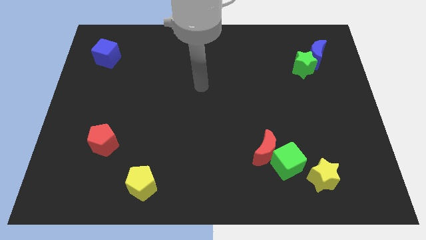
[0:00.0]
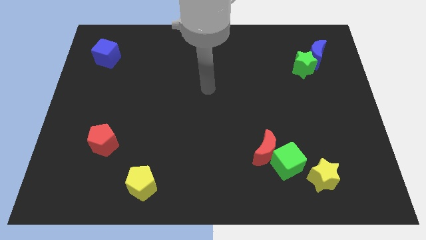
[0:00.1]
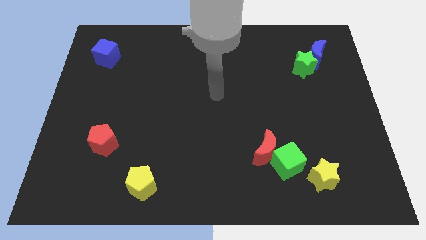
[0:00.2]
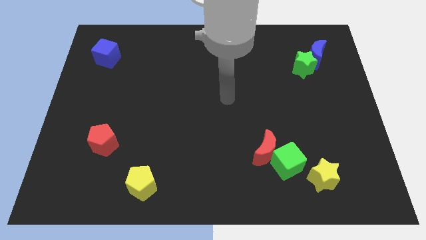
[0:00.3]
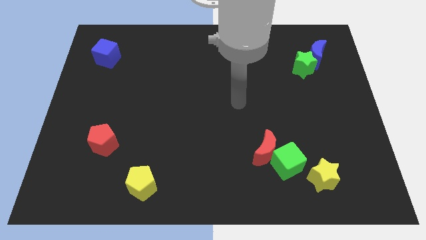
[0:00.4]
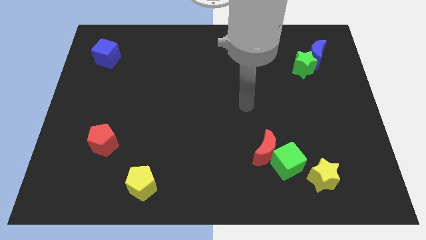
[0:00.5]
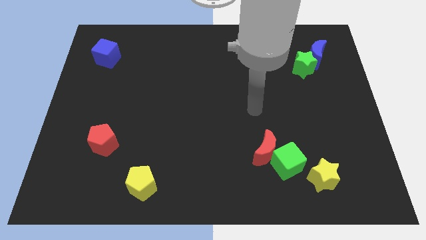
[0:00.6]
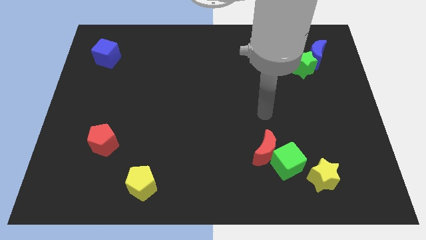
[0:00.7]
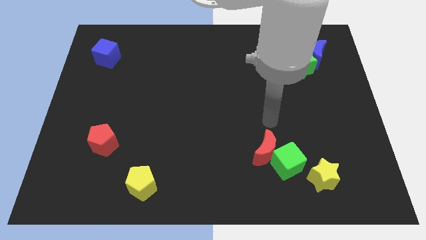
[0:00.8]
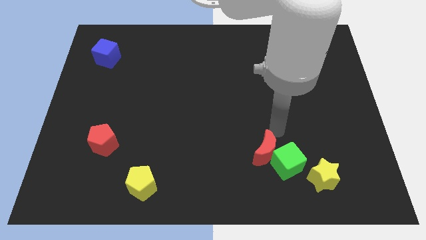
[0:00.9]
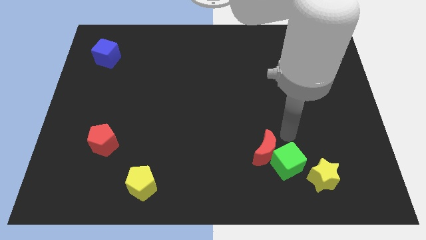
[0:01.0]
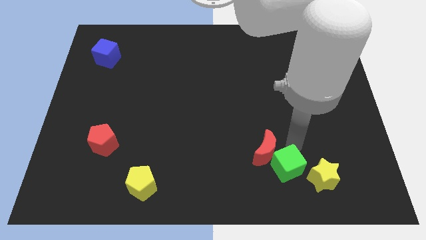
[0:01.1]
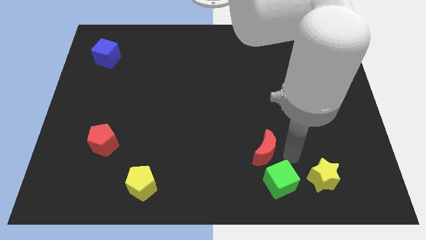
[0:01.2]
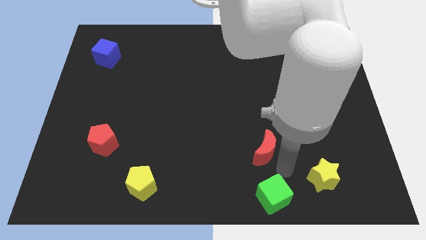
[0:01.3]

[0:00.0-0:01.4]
move the red moon away from the green cube

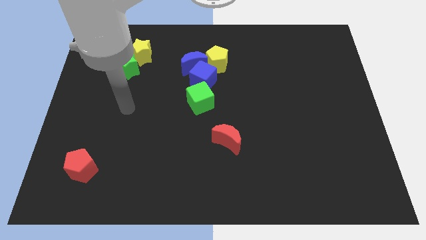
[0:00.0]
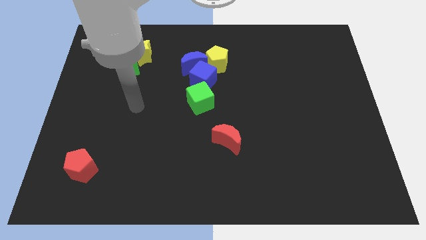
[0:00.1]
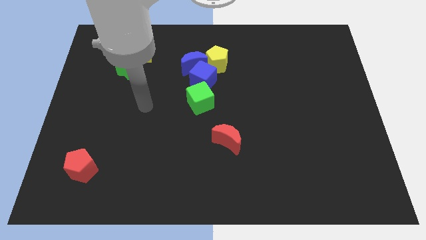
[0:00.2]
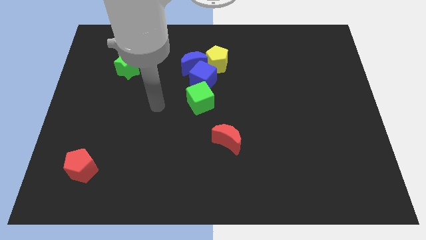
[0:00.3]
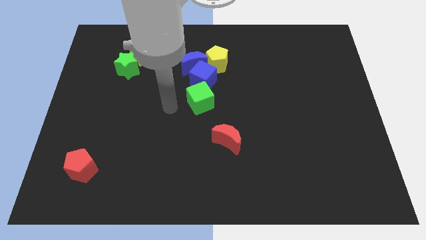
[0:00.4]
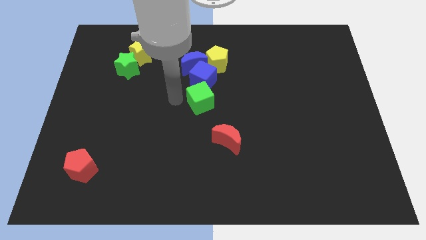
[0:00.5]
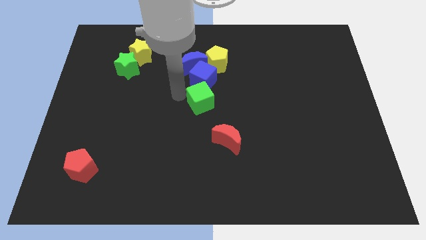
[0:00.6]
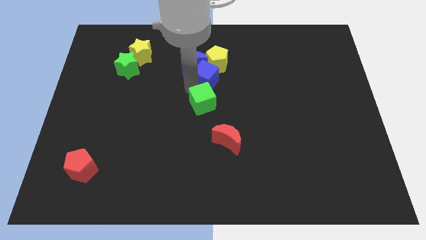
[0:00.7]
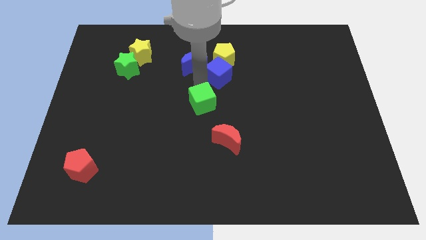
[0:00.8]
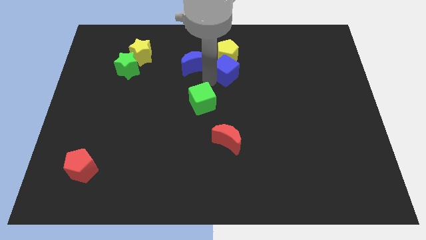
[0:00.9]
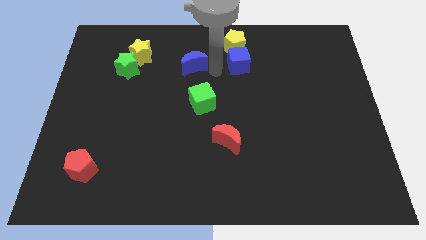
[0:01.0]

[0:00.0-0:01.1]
separate the blue moon from the blue cube and yellow pentagon

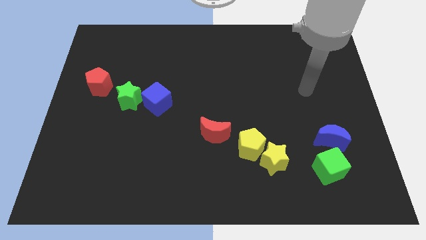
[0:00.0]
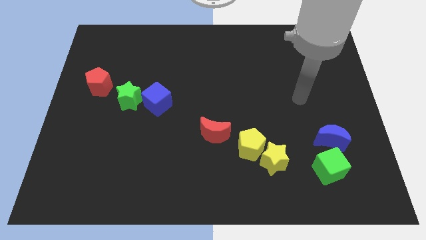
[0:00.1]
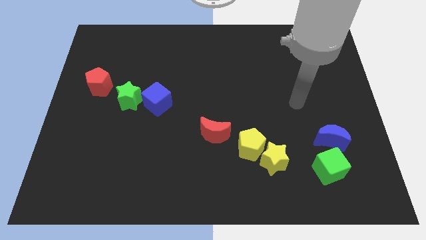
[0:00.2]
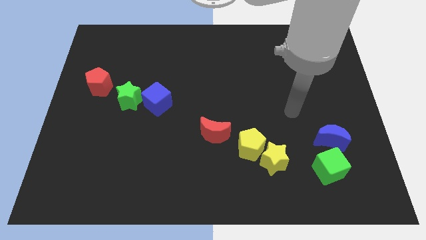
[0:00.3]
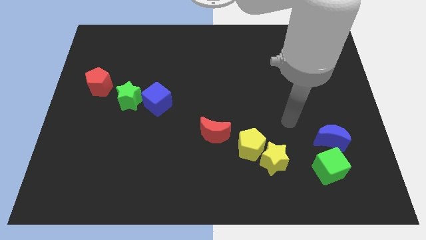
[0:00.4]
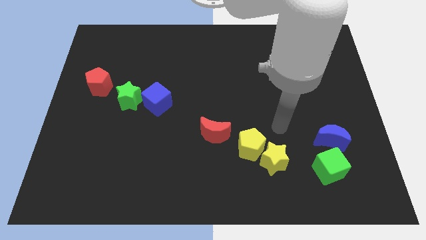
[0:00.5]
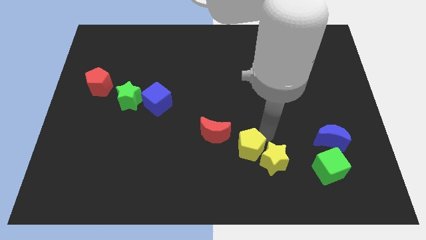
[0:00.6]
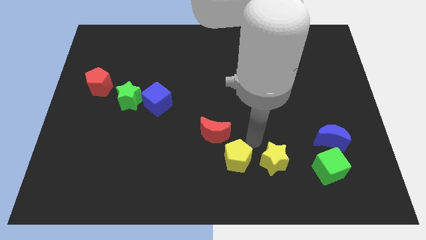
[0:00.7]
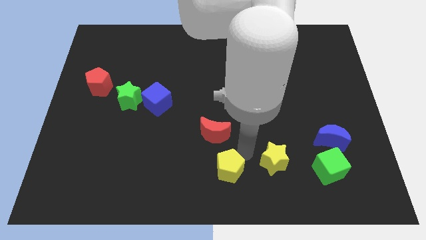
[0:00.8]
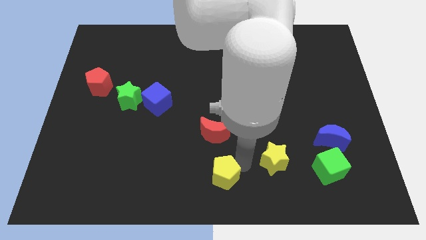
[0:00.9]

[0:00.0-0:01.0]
separate the yellow star from the yellow pentagon

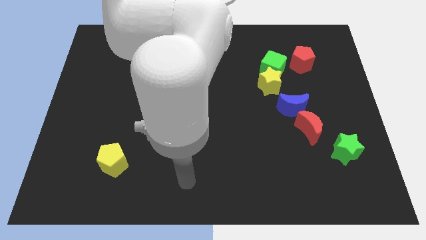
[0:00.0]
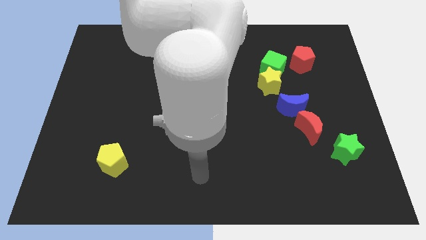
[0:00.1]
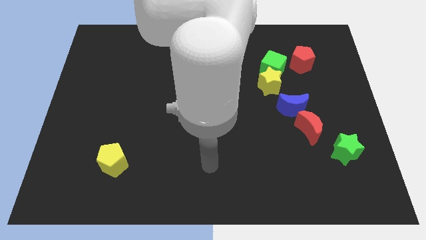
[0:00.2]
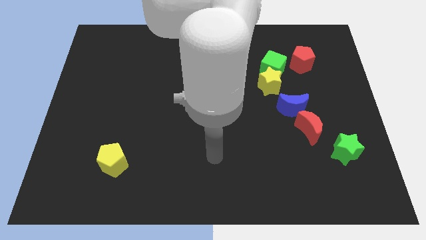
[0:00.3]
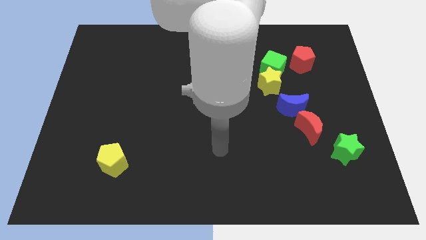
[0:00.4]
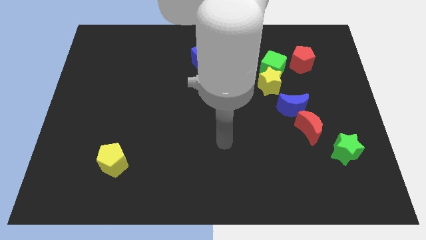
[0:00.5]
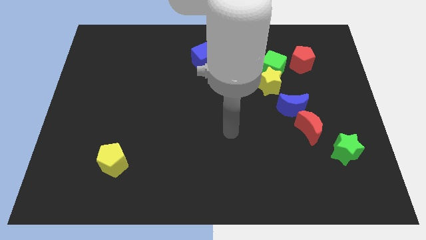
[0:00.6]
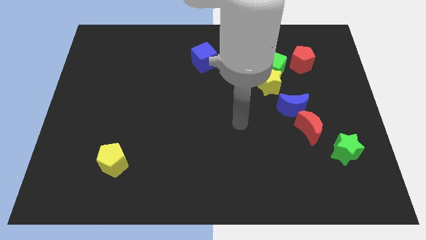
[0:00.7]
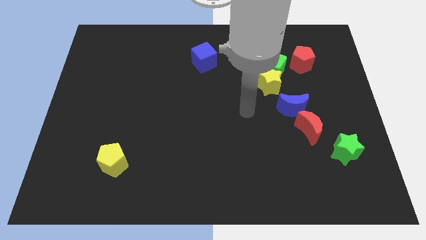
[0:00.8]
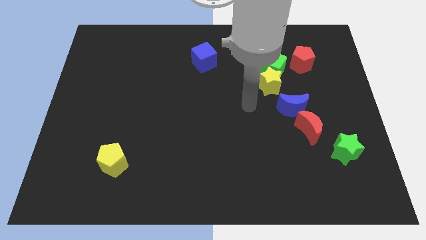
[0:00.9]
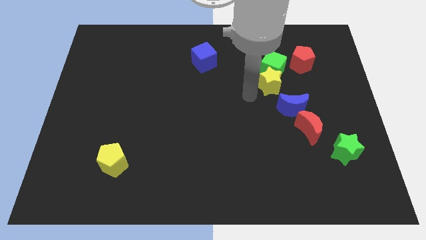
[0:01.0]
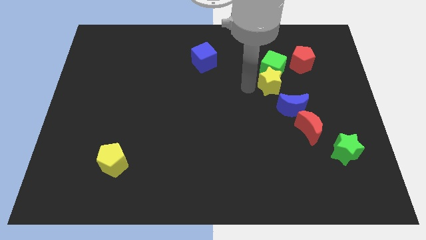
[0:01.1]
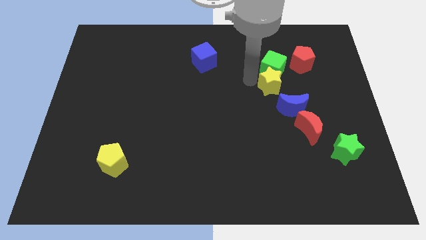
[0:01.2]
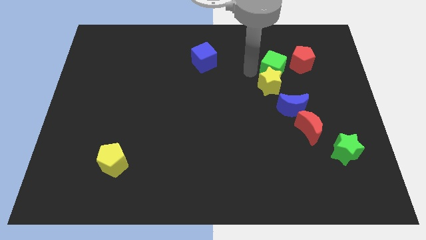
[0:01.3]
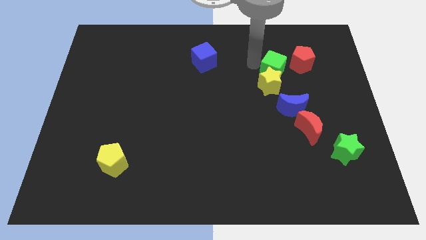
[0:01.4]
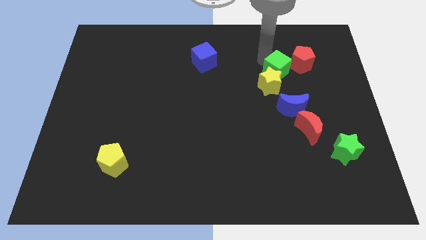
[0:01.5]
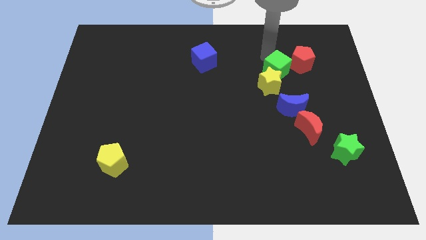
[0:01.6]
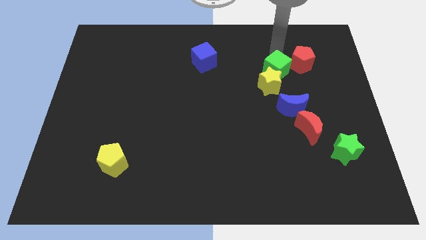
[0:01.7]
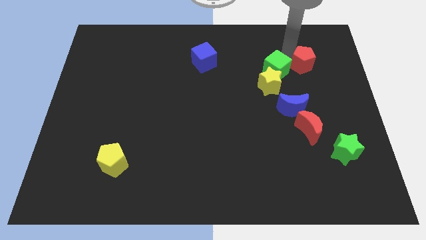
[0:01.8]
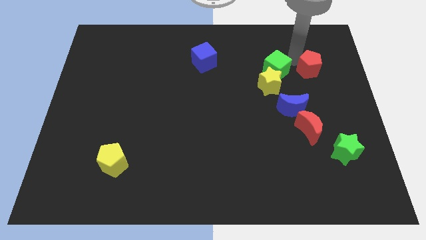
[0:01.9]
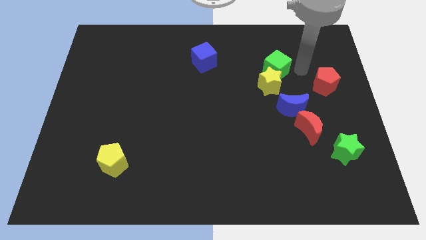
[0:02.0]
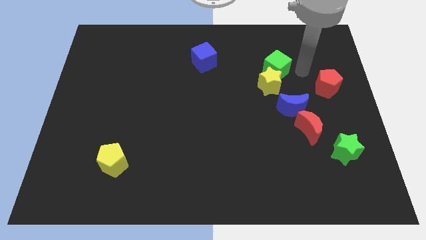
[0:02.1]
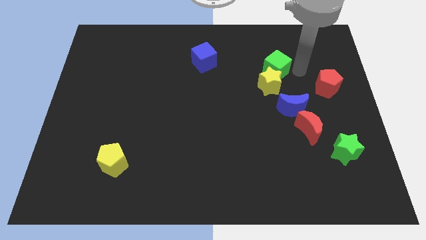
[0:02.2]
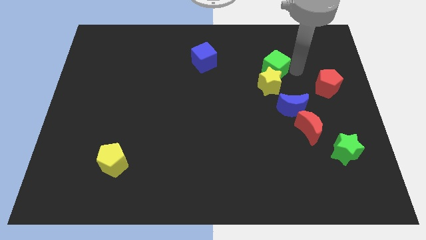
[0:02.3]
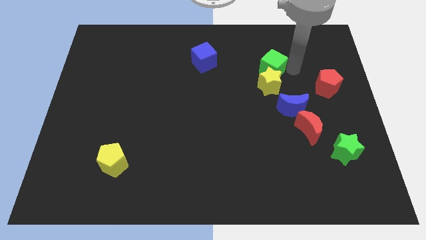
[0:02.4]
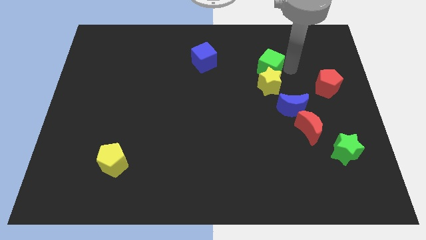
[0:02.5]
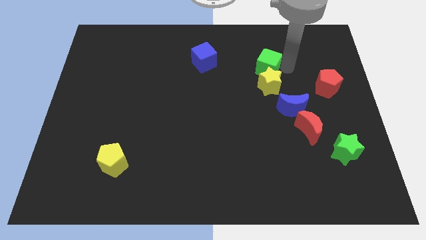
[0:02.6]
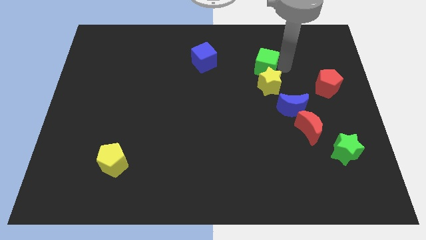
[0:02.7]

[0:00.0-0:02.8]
separate the green cube from the yellow star and red pentagon

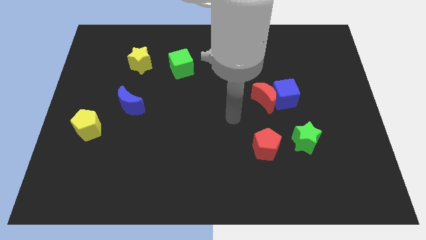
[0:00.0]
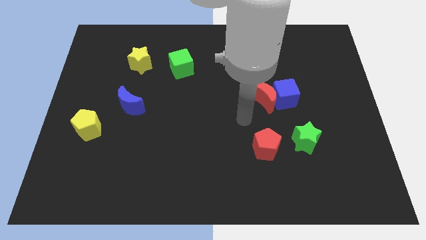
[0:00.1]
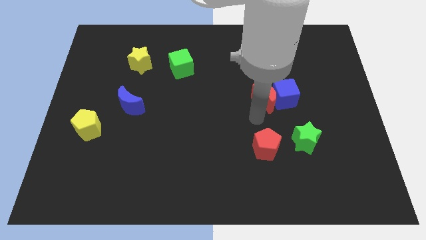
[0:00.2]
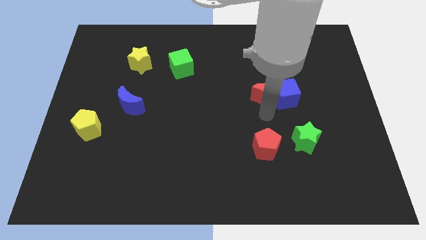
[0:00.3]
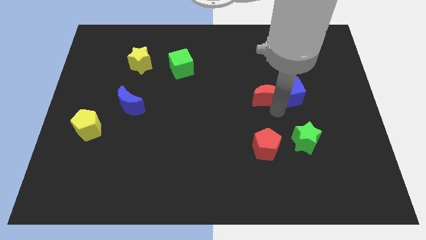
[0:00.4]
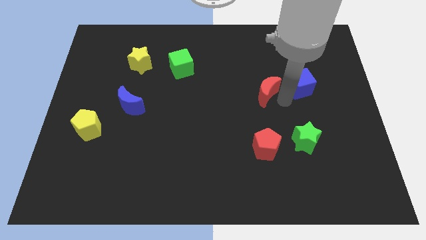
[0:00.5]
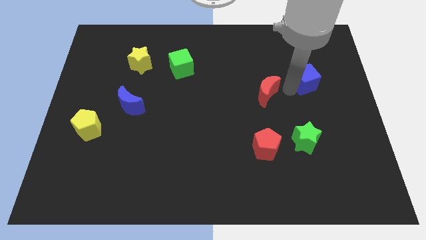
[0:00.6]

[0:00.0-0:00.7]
pull the red moon apart from the blue cube

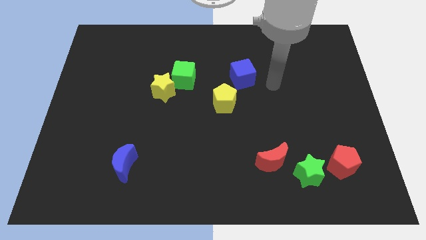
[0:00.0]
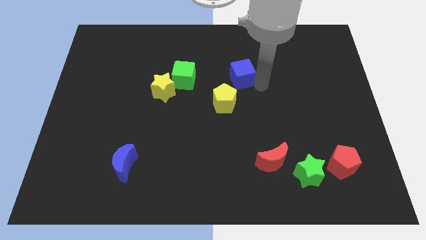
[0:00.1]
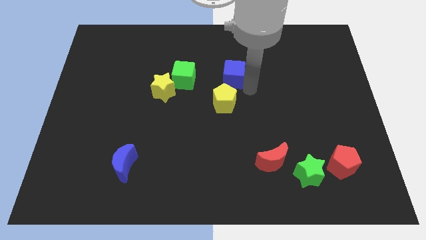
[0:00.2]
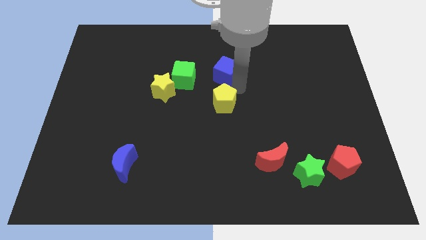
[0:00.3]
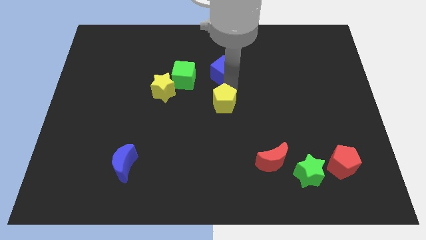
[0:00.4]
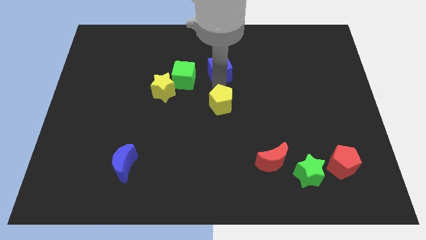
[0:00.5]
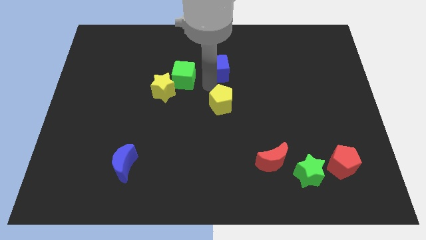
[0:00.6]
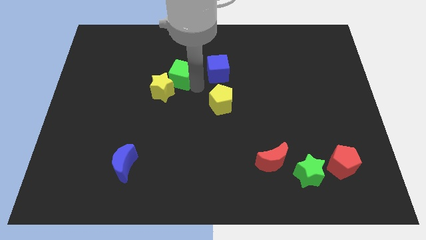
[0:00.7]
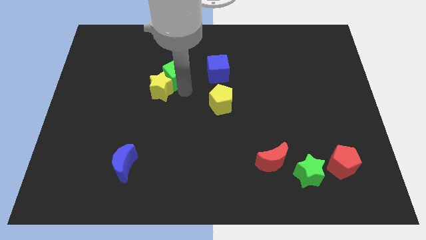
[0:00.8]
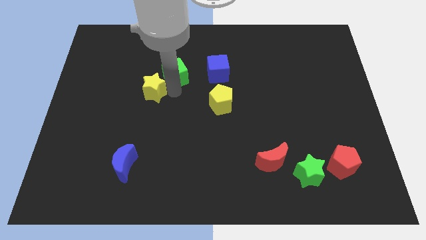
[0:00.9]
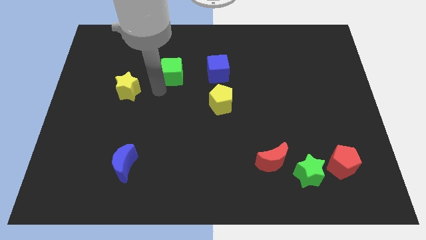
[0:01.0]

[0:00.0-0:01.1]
pull the green cube apart from the yellow star

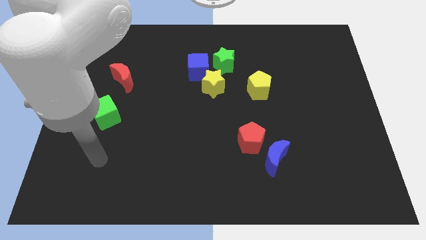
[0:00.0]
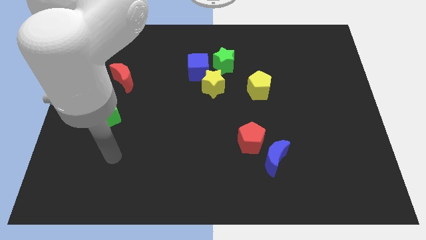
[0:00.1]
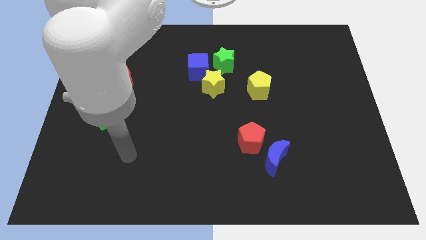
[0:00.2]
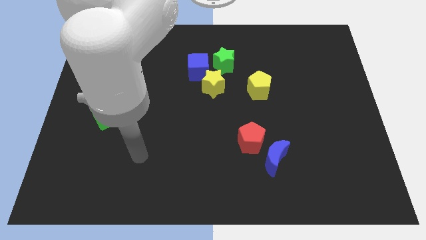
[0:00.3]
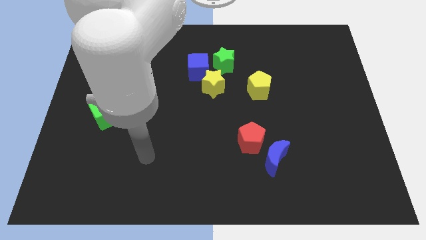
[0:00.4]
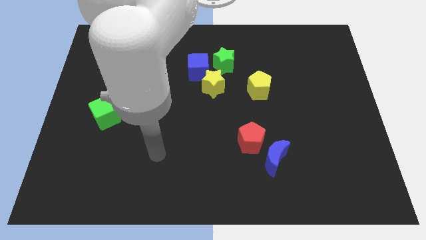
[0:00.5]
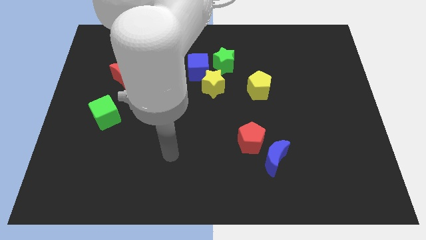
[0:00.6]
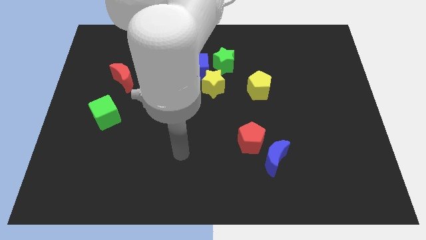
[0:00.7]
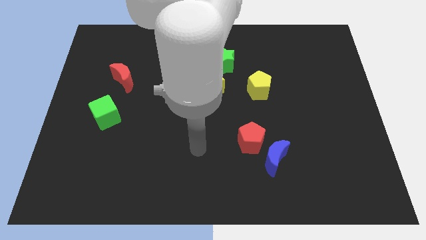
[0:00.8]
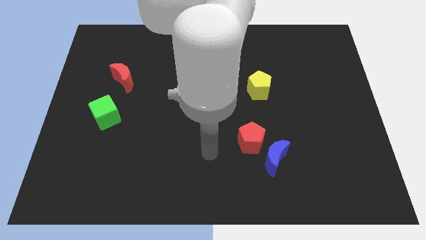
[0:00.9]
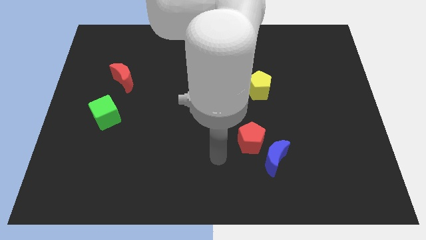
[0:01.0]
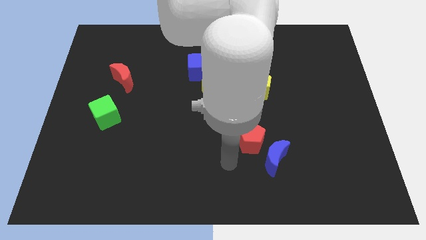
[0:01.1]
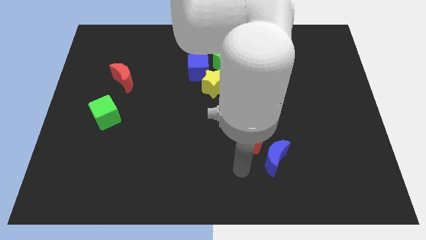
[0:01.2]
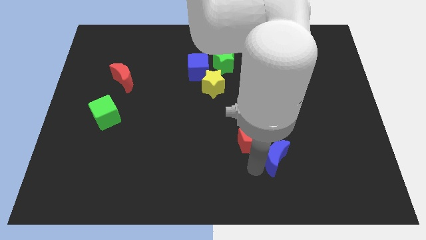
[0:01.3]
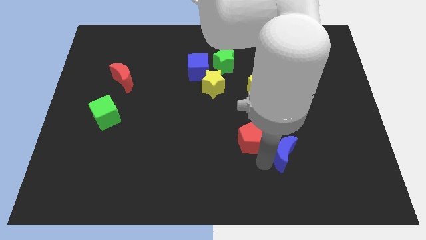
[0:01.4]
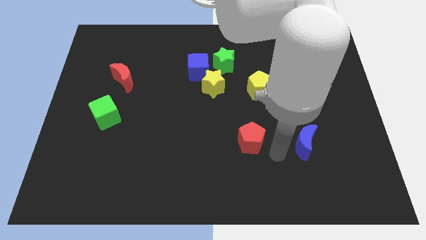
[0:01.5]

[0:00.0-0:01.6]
pull the red pentagon apart from the blue moon
